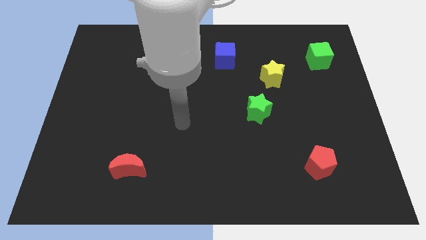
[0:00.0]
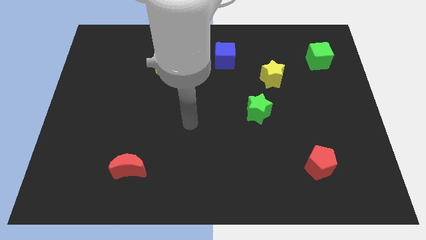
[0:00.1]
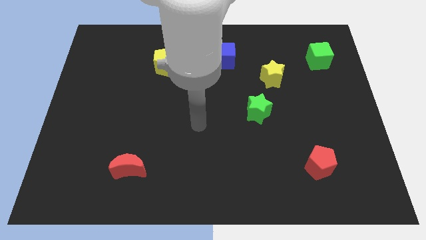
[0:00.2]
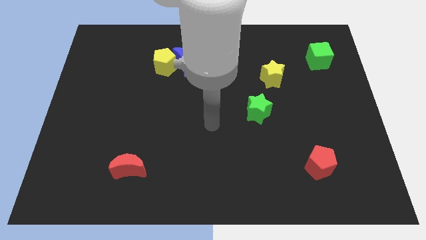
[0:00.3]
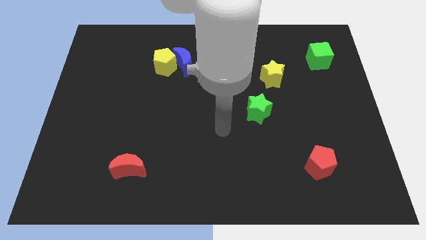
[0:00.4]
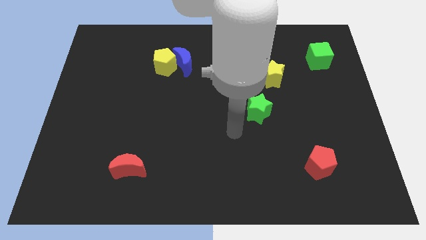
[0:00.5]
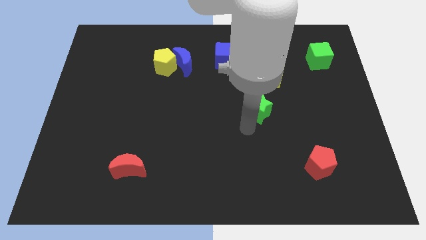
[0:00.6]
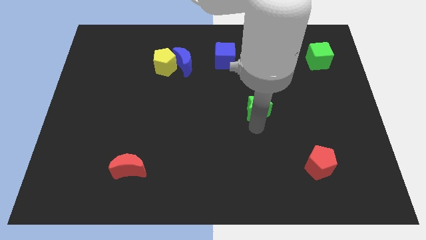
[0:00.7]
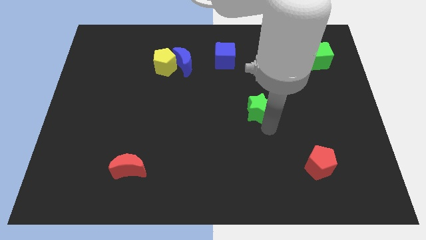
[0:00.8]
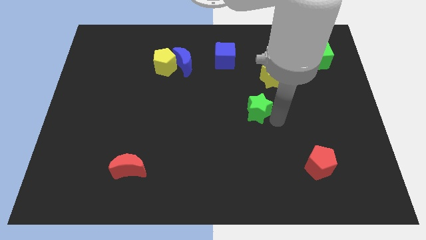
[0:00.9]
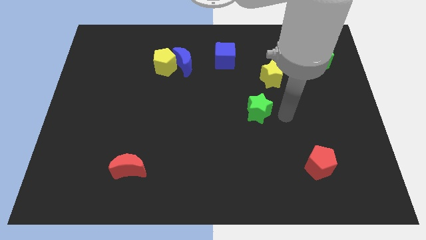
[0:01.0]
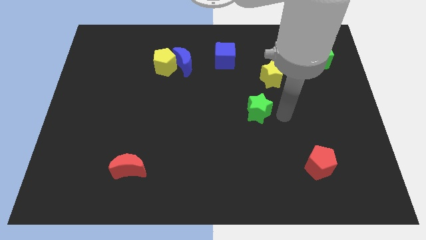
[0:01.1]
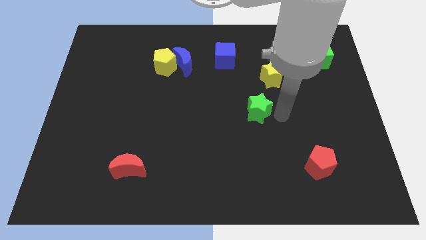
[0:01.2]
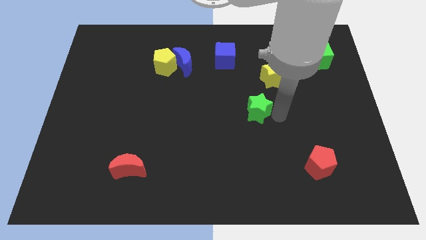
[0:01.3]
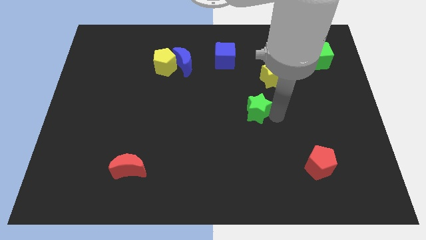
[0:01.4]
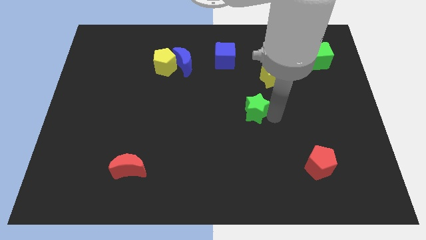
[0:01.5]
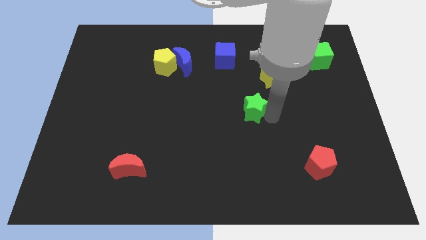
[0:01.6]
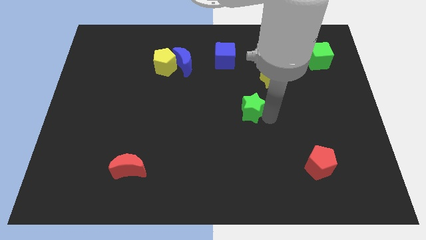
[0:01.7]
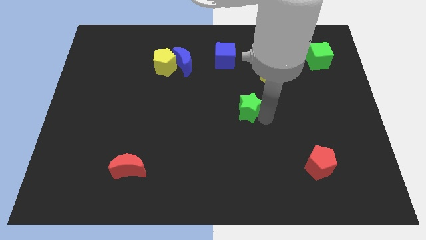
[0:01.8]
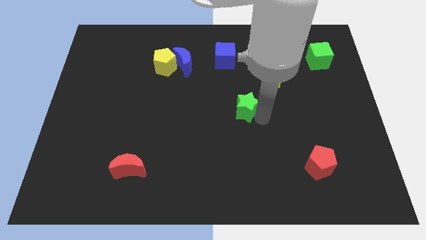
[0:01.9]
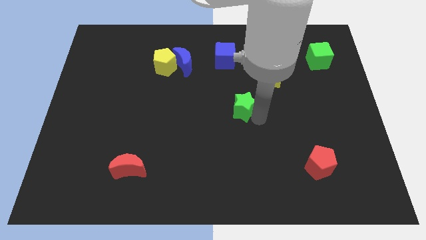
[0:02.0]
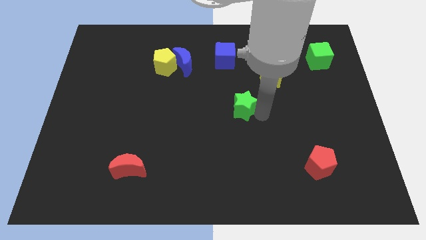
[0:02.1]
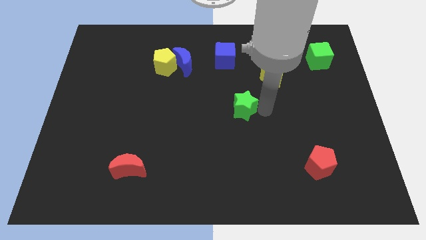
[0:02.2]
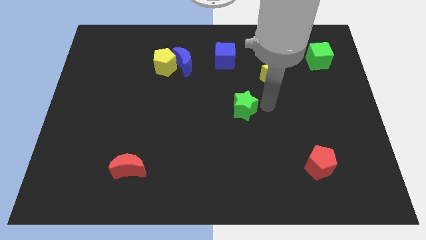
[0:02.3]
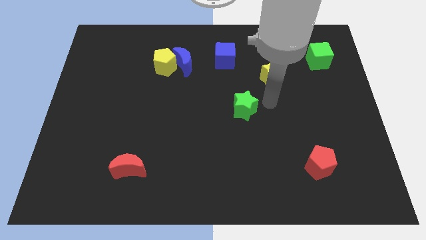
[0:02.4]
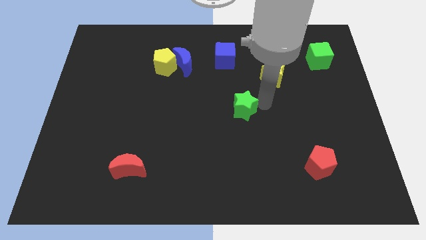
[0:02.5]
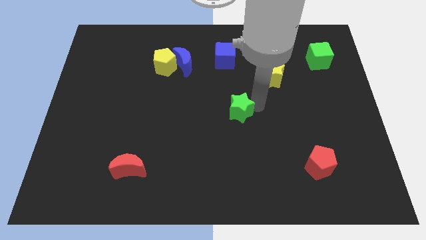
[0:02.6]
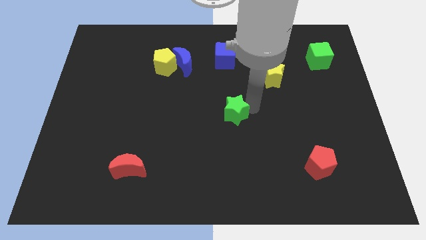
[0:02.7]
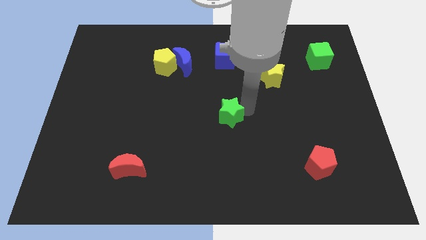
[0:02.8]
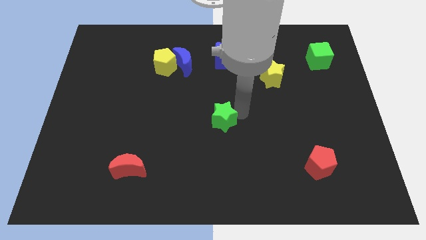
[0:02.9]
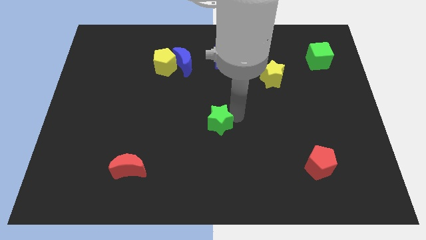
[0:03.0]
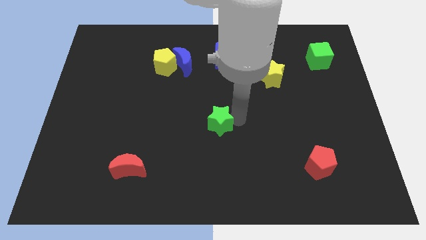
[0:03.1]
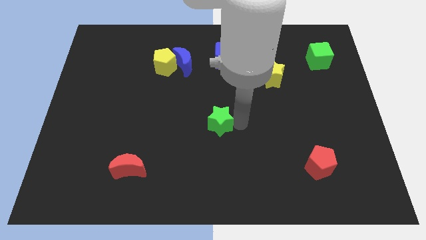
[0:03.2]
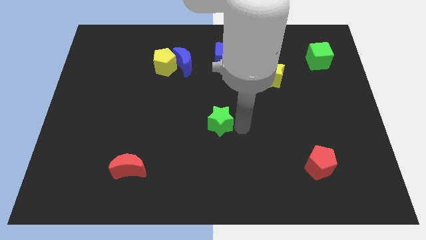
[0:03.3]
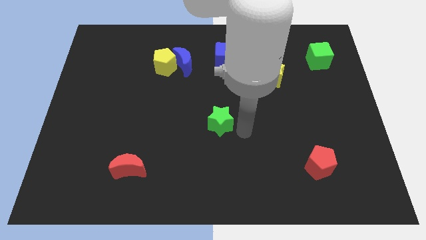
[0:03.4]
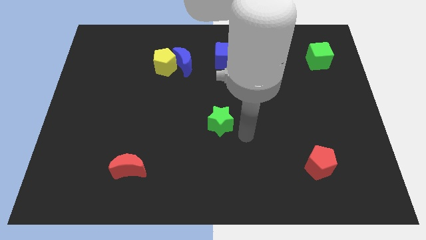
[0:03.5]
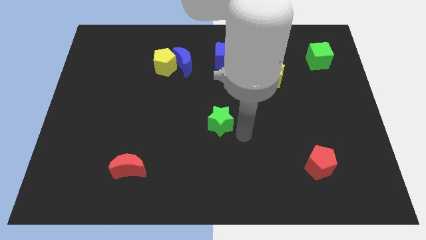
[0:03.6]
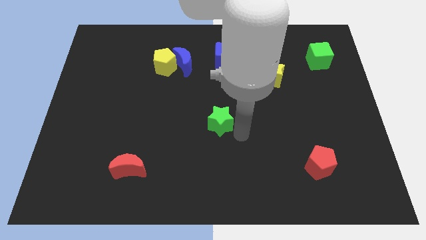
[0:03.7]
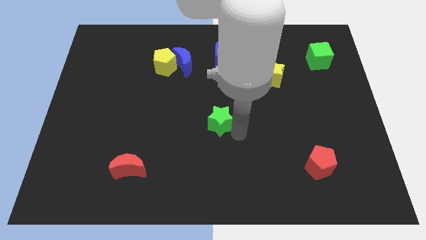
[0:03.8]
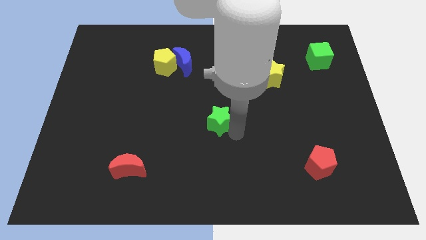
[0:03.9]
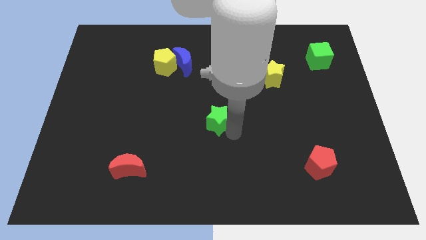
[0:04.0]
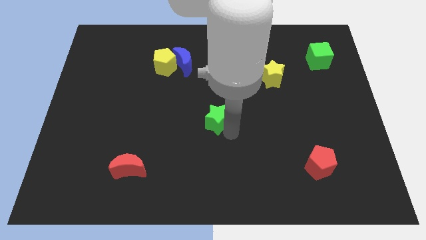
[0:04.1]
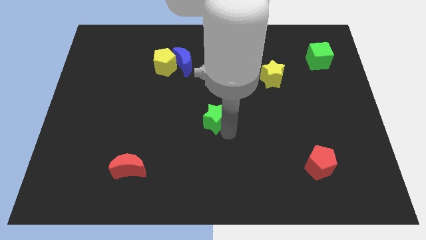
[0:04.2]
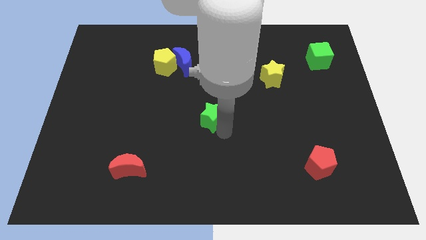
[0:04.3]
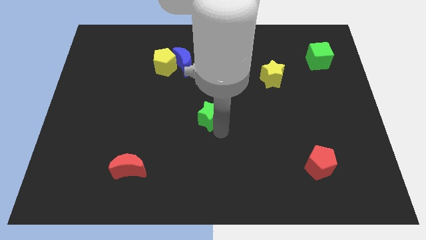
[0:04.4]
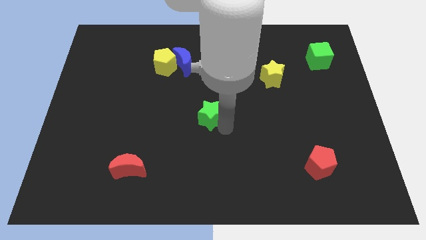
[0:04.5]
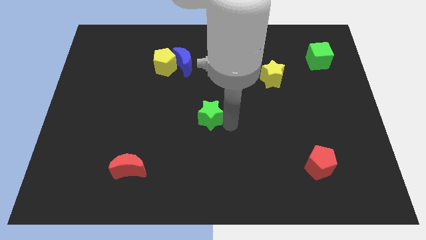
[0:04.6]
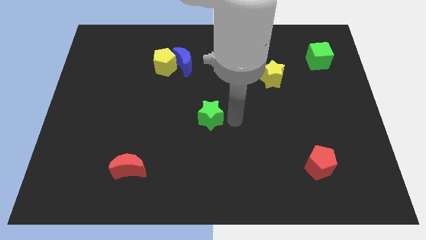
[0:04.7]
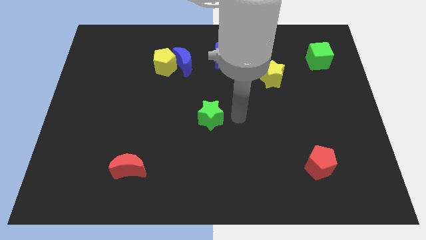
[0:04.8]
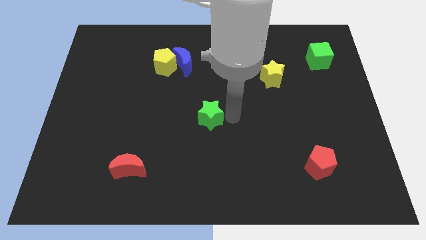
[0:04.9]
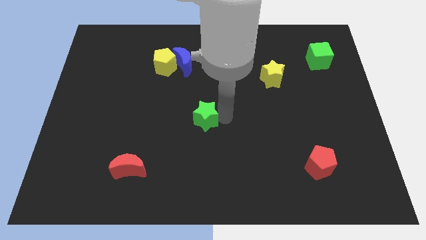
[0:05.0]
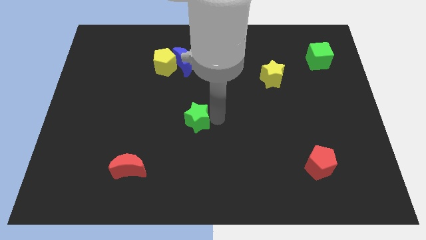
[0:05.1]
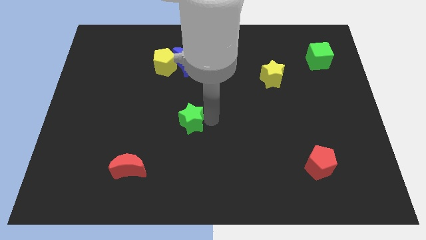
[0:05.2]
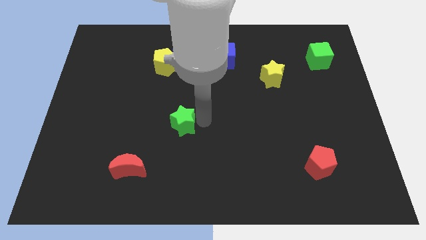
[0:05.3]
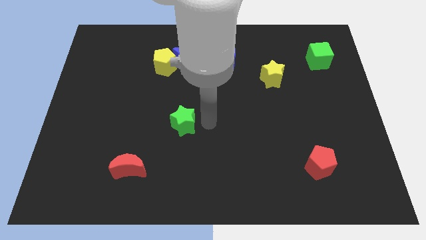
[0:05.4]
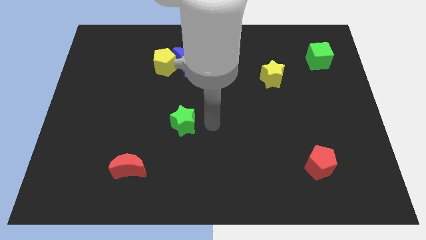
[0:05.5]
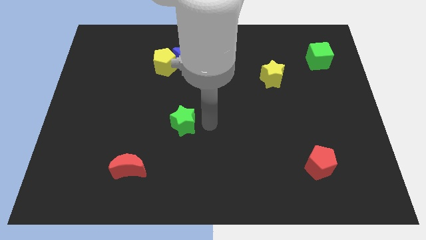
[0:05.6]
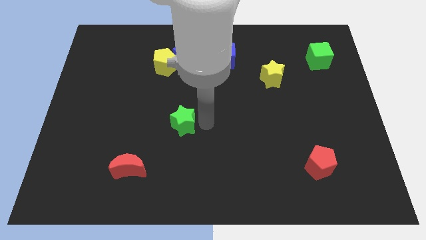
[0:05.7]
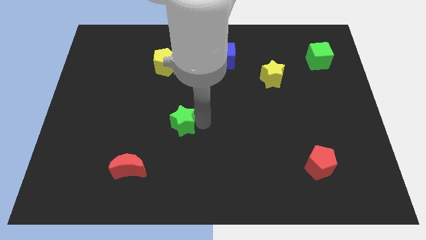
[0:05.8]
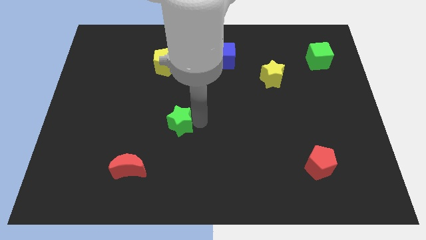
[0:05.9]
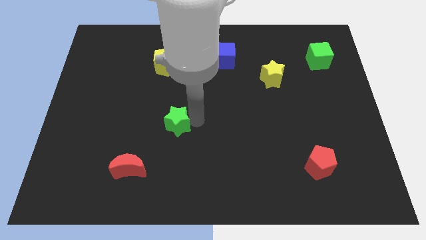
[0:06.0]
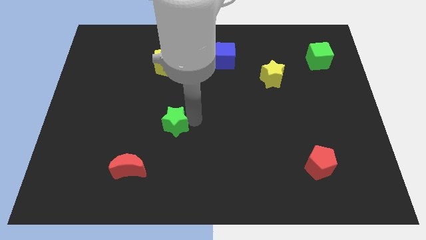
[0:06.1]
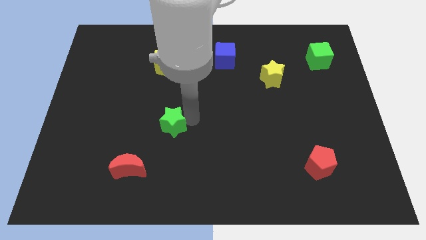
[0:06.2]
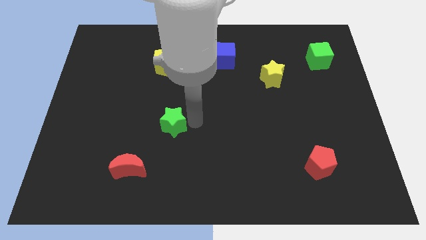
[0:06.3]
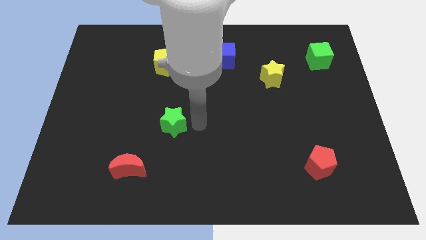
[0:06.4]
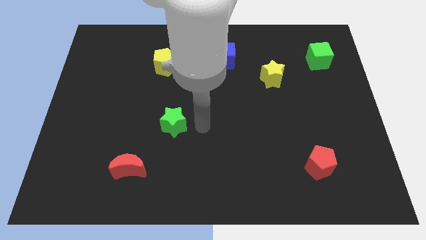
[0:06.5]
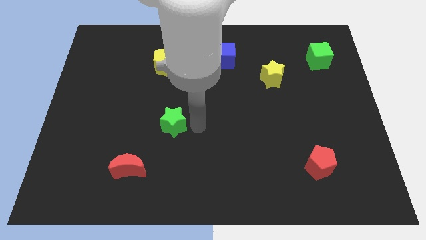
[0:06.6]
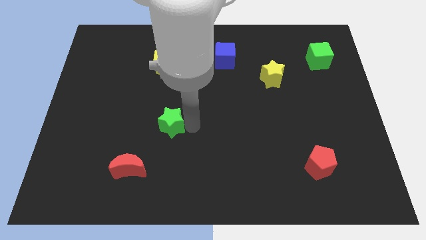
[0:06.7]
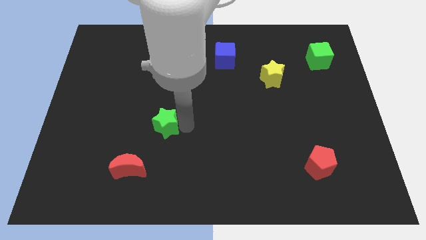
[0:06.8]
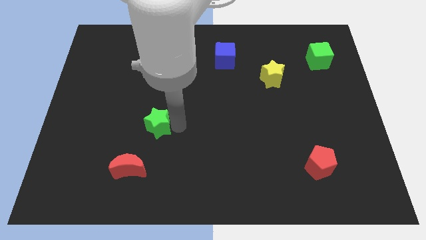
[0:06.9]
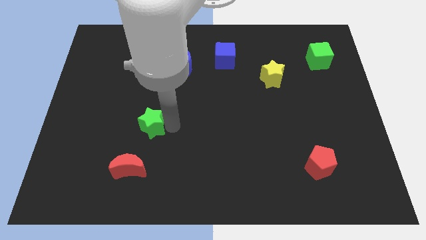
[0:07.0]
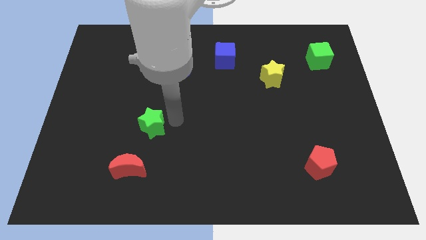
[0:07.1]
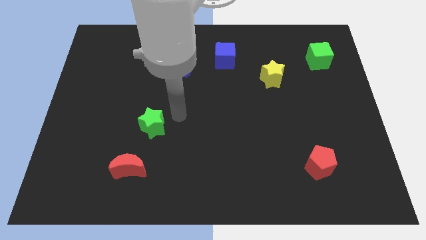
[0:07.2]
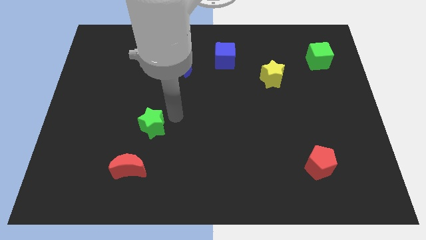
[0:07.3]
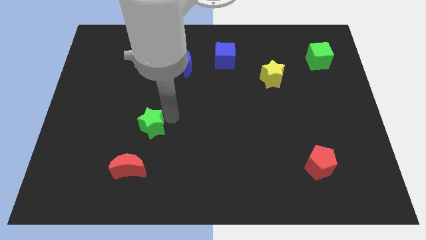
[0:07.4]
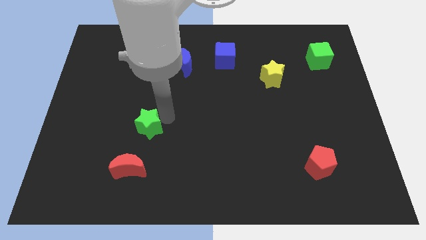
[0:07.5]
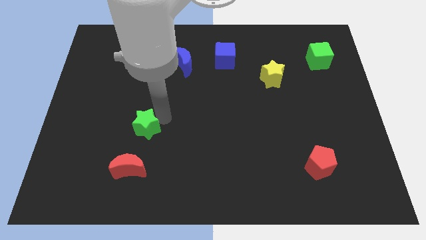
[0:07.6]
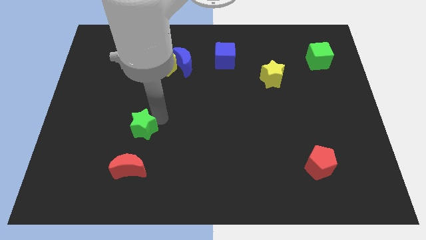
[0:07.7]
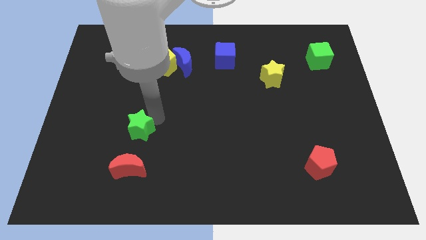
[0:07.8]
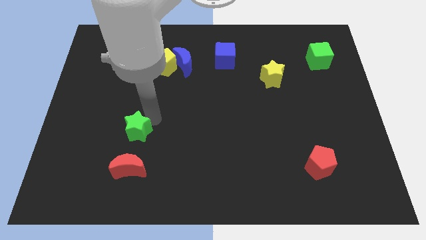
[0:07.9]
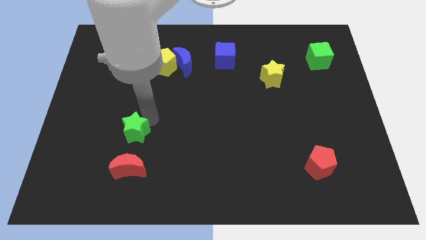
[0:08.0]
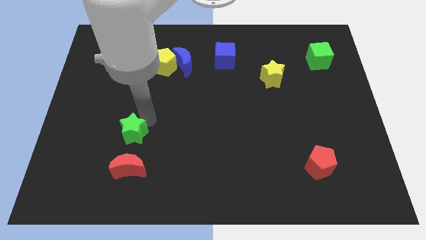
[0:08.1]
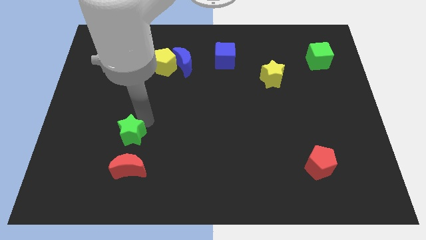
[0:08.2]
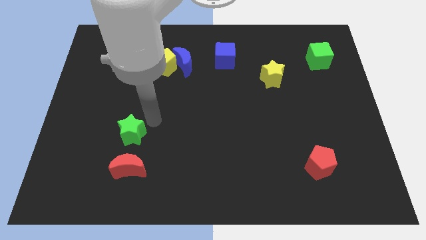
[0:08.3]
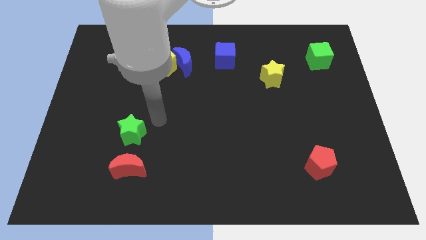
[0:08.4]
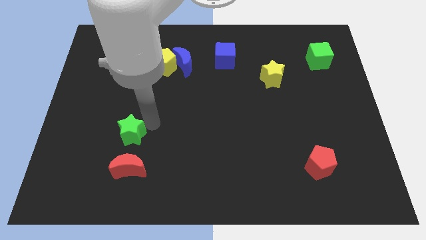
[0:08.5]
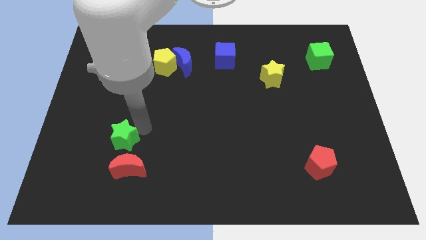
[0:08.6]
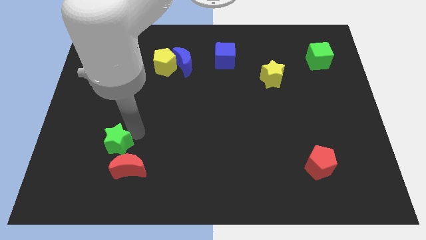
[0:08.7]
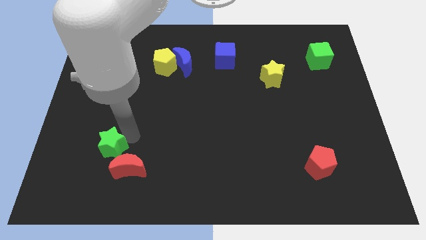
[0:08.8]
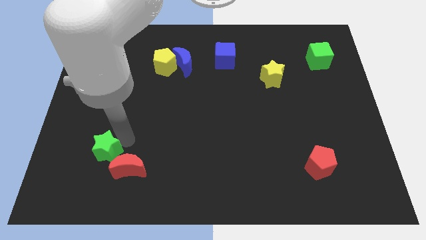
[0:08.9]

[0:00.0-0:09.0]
put the green star left of the red moon
